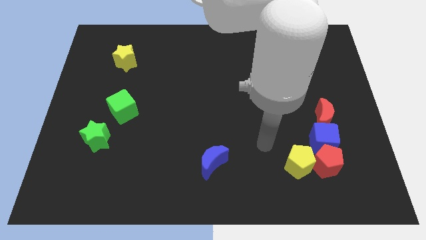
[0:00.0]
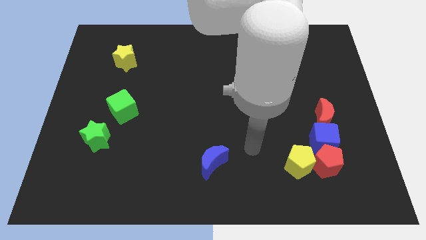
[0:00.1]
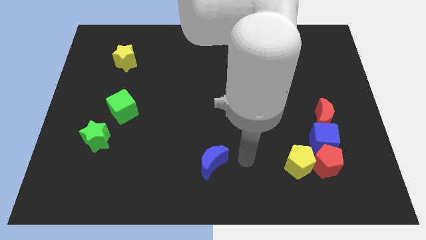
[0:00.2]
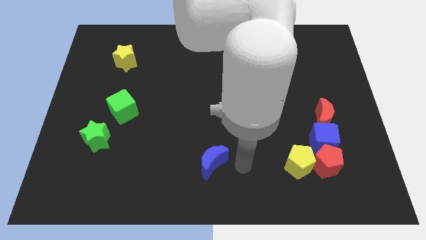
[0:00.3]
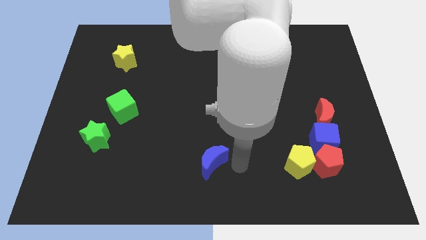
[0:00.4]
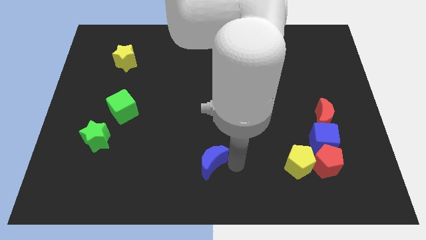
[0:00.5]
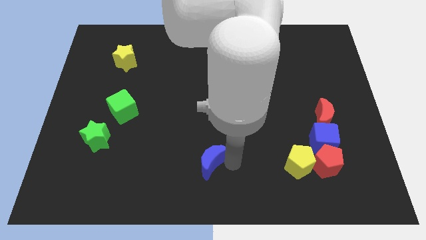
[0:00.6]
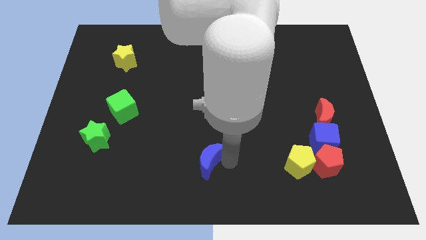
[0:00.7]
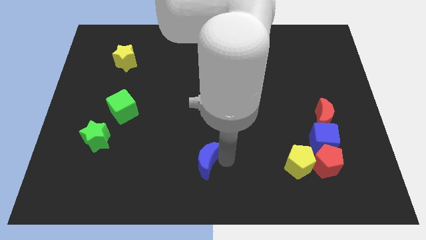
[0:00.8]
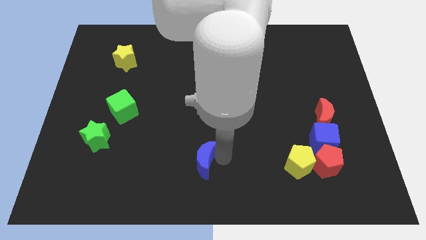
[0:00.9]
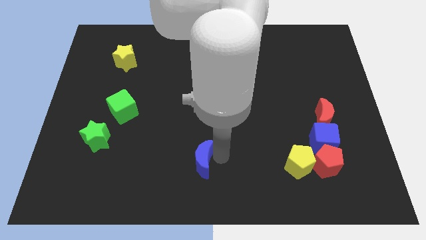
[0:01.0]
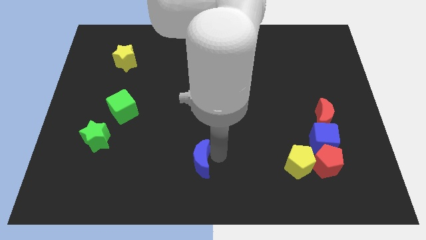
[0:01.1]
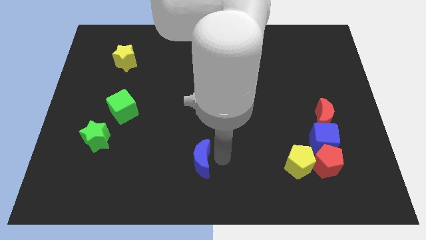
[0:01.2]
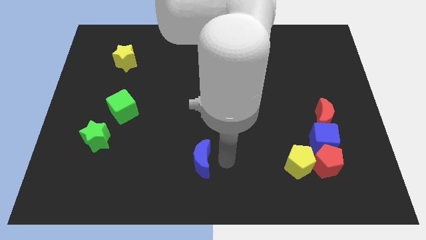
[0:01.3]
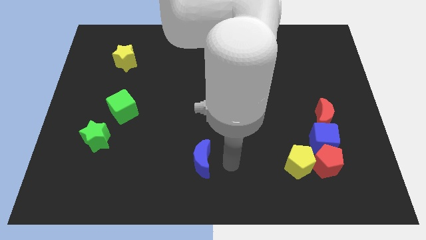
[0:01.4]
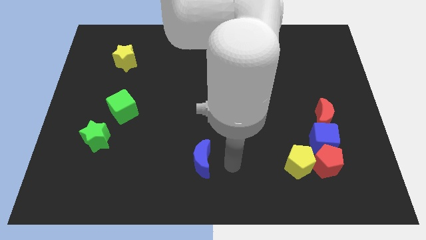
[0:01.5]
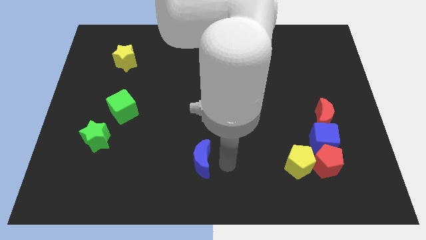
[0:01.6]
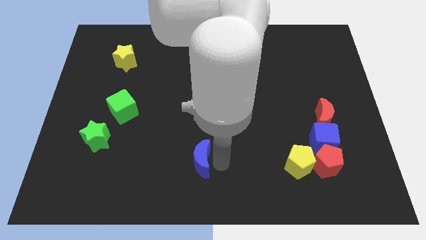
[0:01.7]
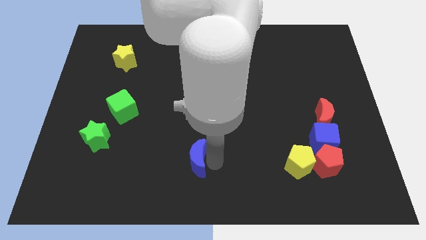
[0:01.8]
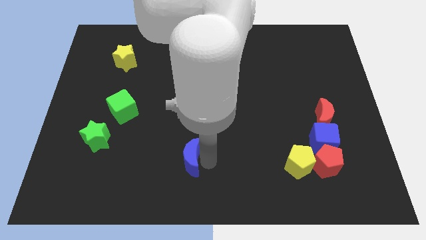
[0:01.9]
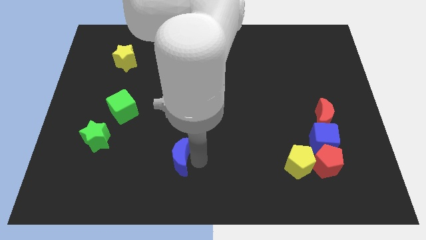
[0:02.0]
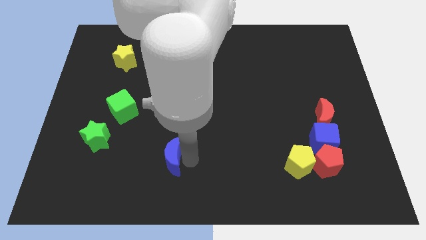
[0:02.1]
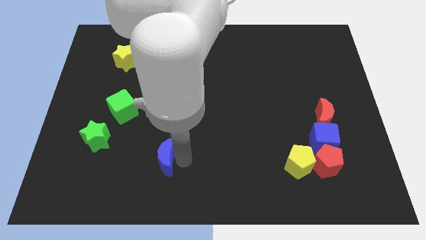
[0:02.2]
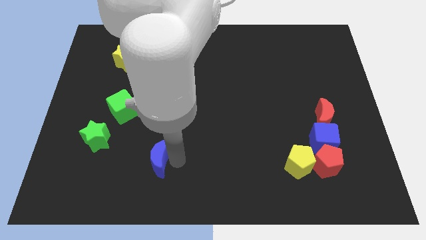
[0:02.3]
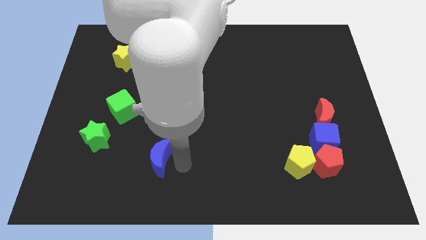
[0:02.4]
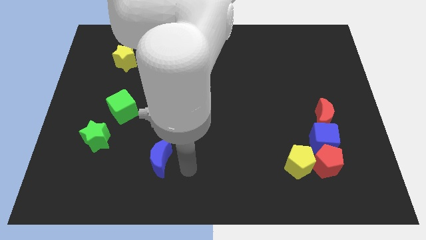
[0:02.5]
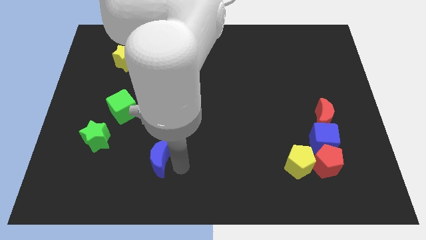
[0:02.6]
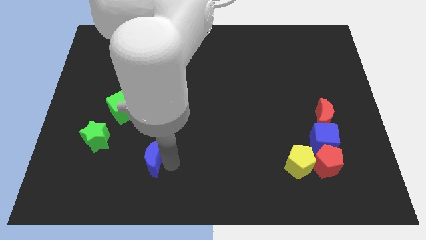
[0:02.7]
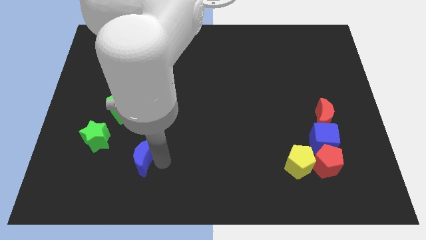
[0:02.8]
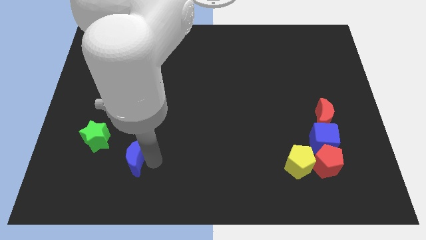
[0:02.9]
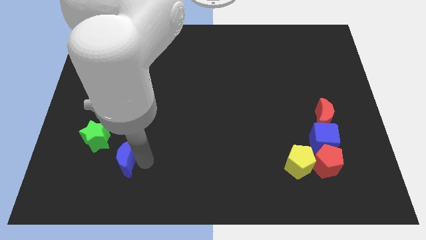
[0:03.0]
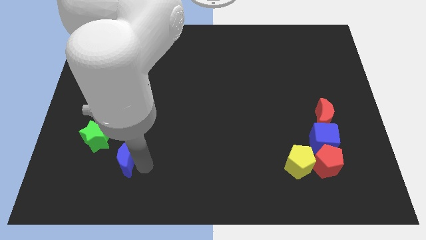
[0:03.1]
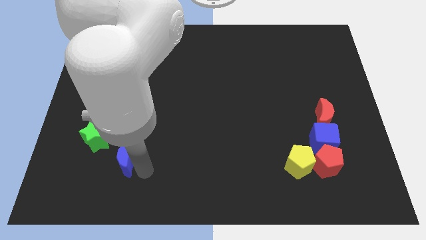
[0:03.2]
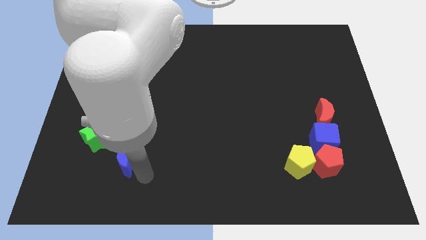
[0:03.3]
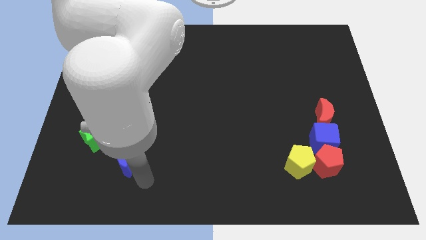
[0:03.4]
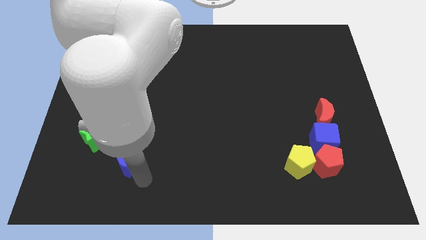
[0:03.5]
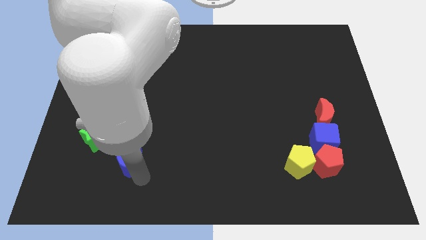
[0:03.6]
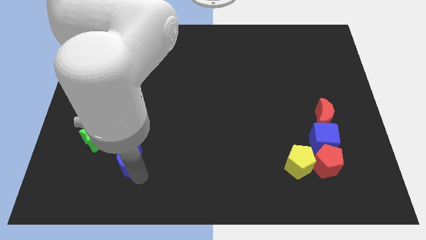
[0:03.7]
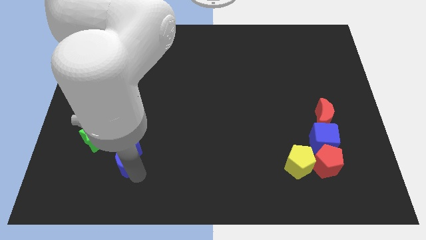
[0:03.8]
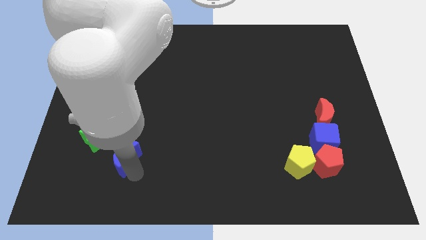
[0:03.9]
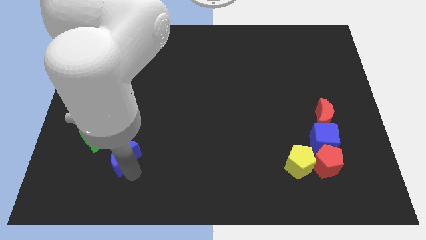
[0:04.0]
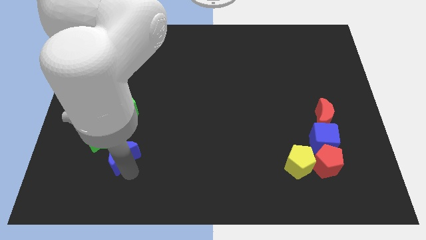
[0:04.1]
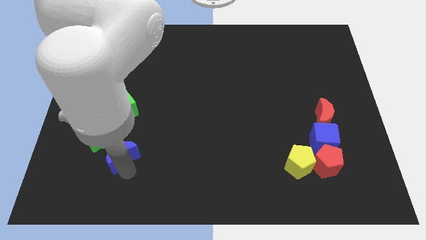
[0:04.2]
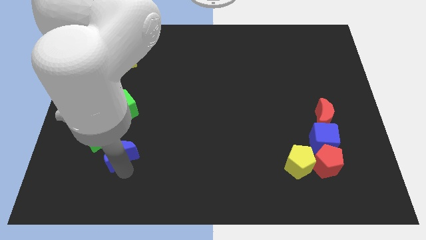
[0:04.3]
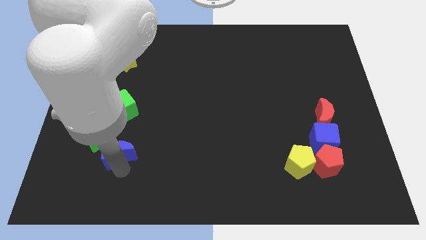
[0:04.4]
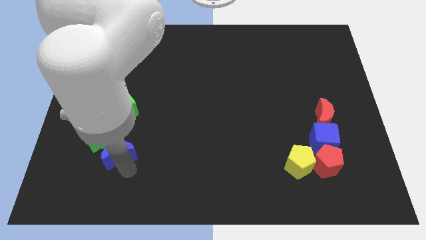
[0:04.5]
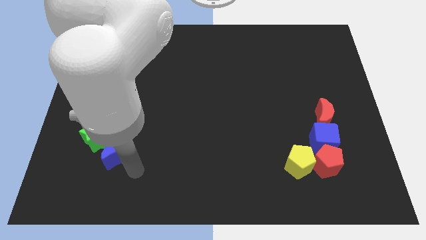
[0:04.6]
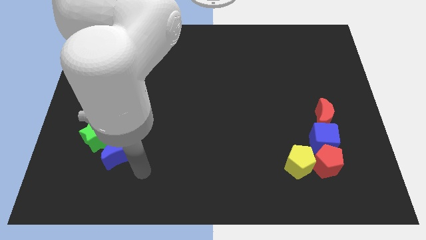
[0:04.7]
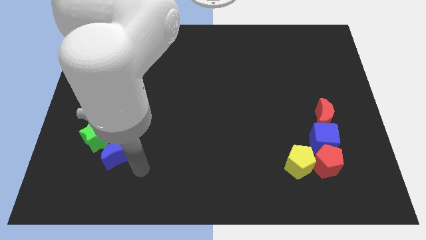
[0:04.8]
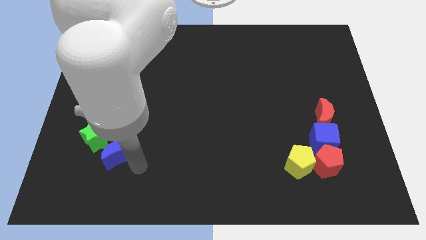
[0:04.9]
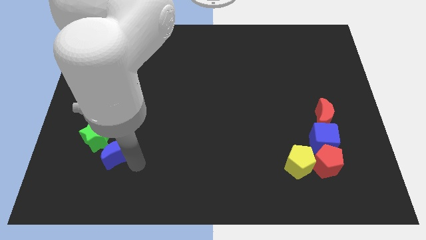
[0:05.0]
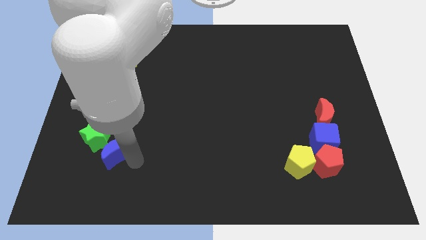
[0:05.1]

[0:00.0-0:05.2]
put the blue moon next to the green star

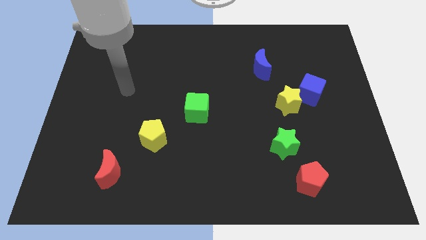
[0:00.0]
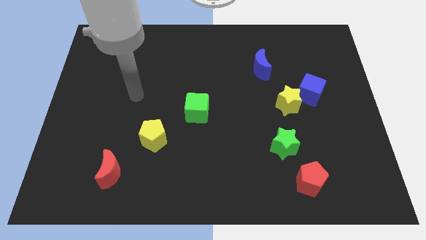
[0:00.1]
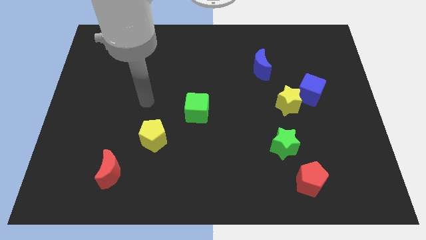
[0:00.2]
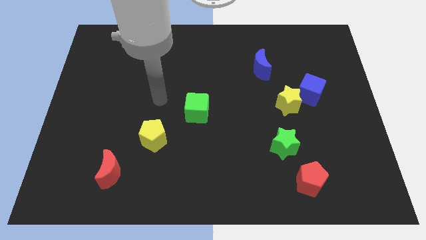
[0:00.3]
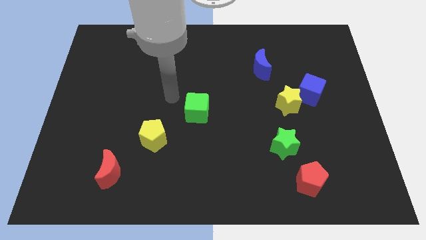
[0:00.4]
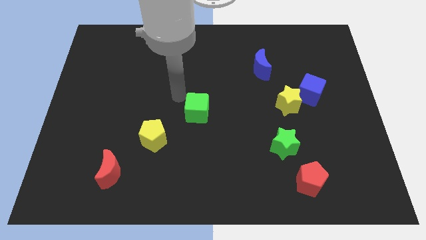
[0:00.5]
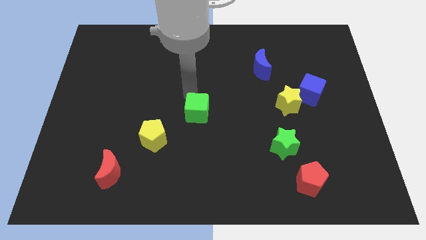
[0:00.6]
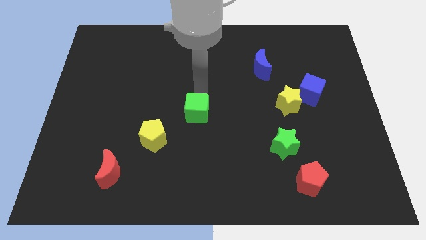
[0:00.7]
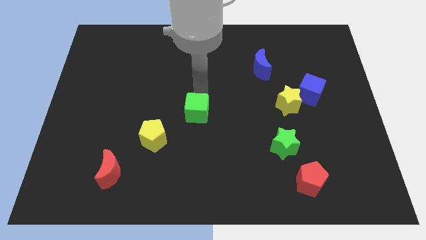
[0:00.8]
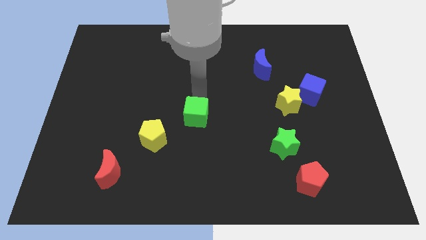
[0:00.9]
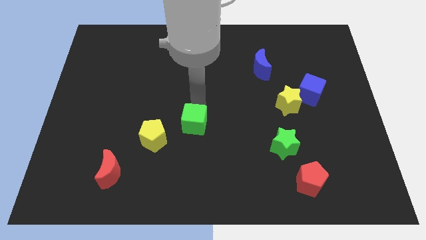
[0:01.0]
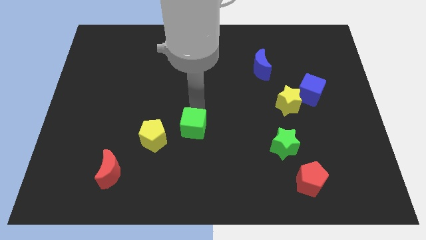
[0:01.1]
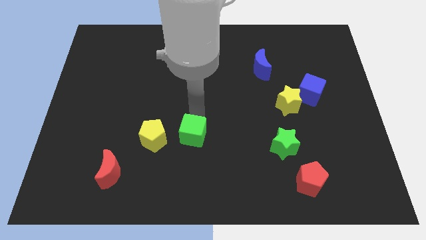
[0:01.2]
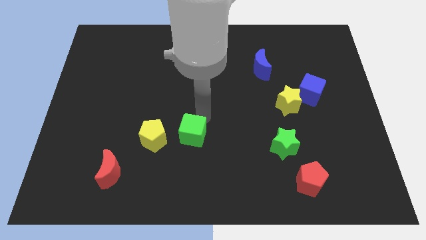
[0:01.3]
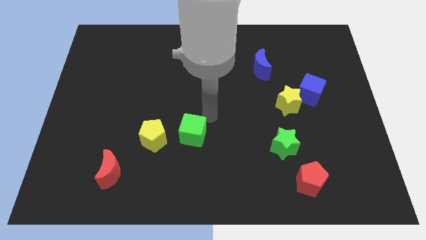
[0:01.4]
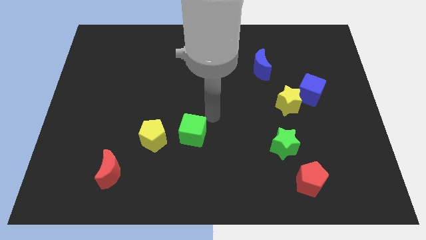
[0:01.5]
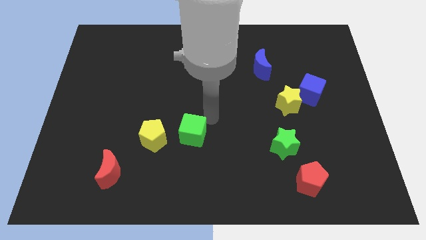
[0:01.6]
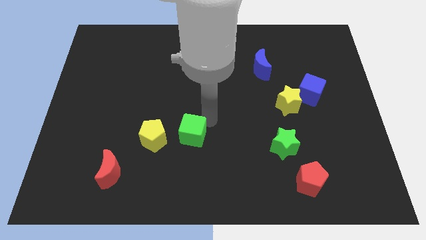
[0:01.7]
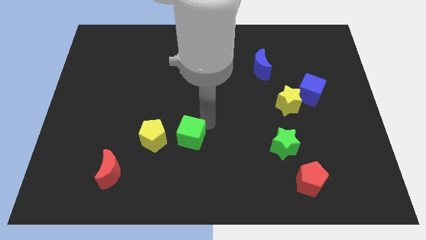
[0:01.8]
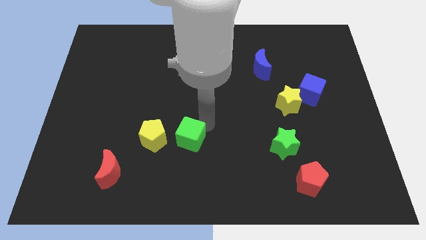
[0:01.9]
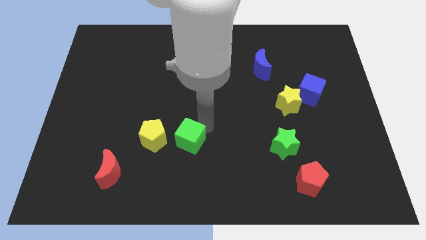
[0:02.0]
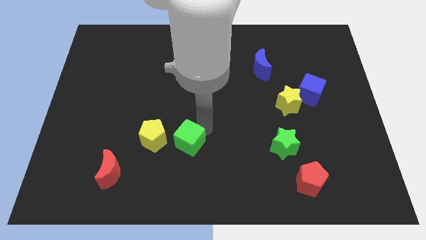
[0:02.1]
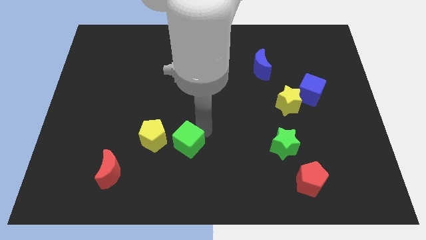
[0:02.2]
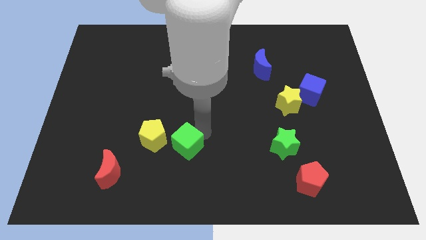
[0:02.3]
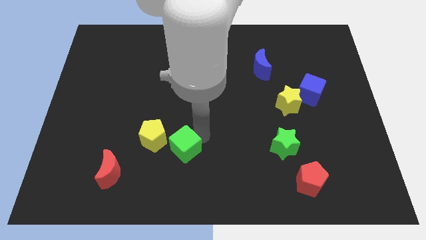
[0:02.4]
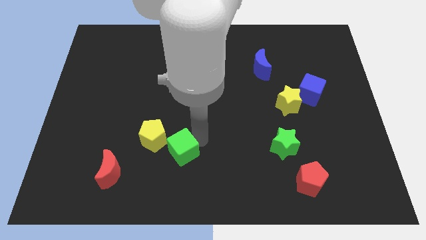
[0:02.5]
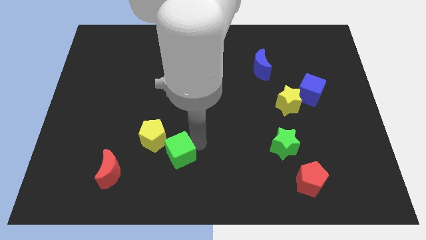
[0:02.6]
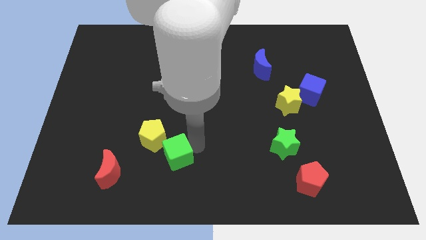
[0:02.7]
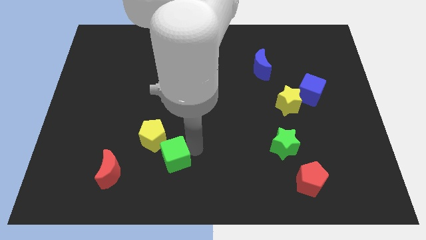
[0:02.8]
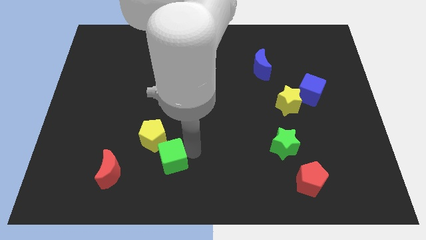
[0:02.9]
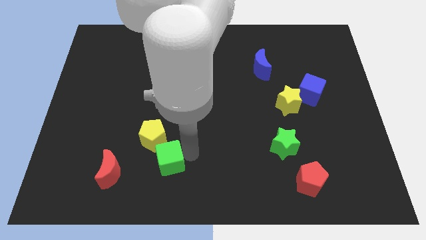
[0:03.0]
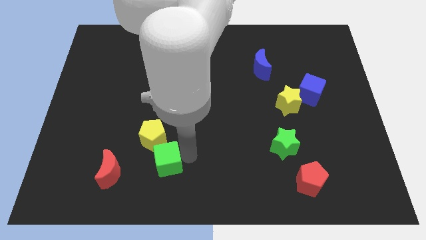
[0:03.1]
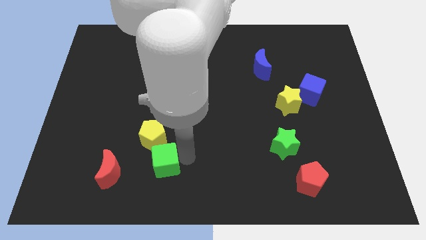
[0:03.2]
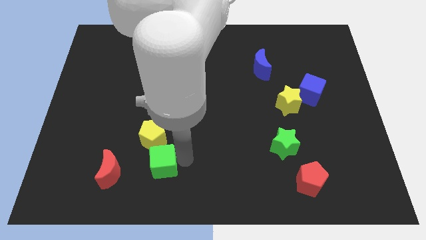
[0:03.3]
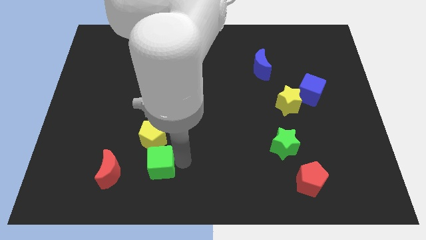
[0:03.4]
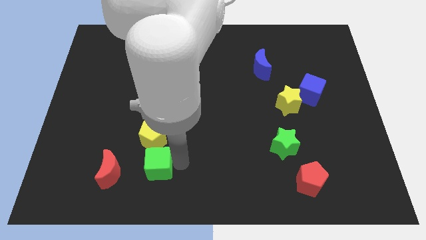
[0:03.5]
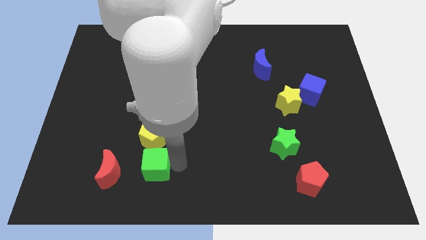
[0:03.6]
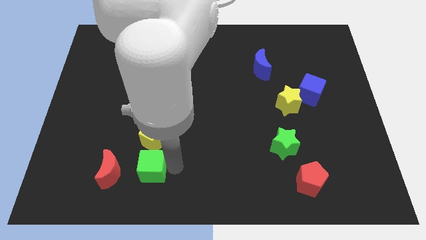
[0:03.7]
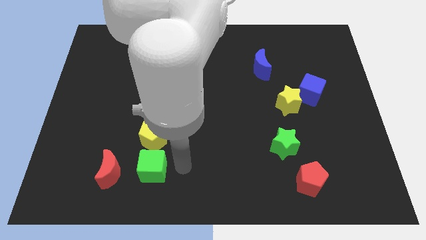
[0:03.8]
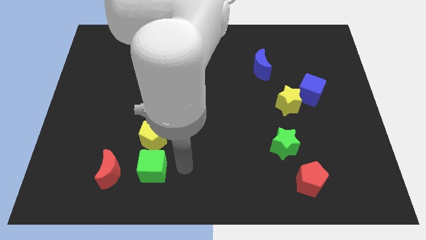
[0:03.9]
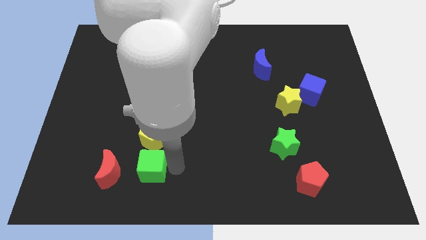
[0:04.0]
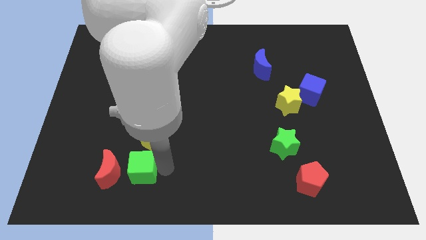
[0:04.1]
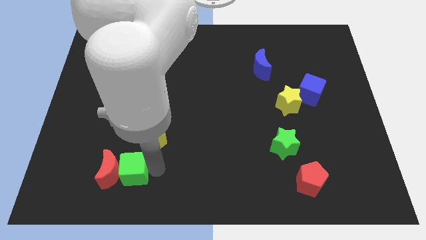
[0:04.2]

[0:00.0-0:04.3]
put the green cube next to the red moon
